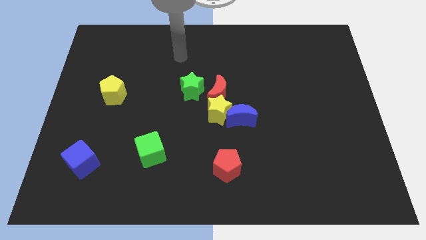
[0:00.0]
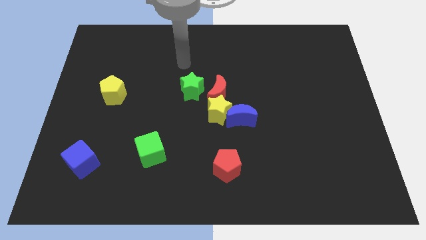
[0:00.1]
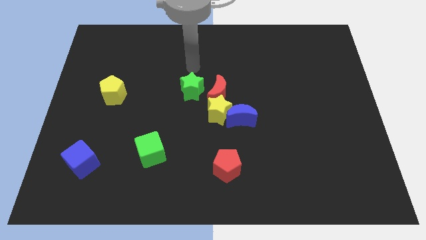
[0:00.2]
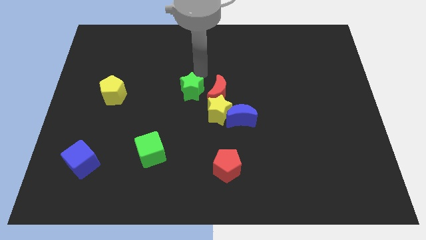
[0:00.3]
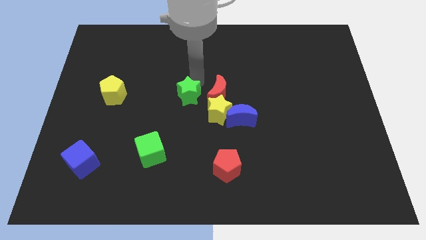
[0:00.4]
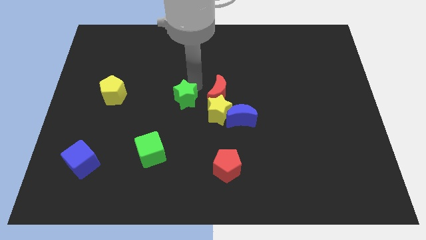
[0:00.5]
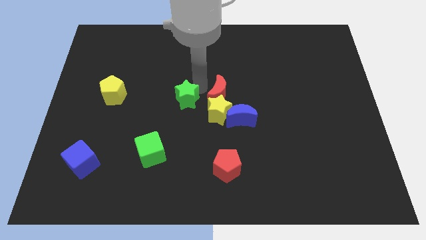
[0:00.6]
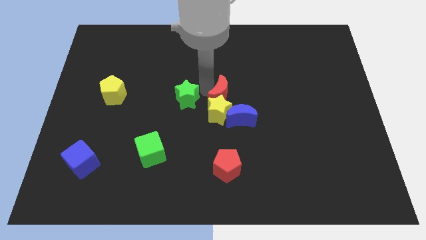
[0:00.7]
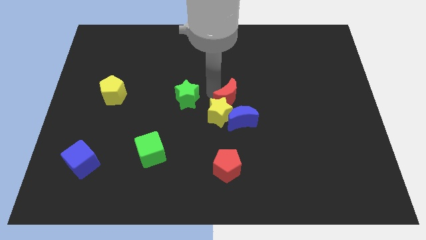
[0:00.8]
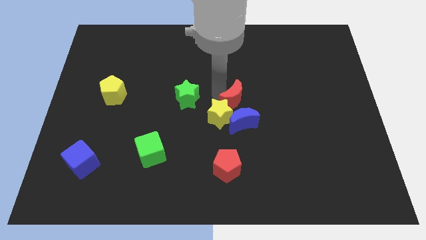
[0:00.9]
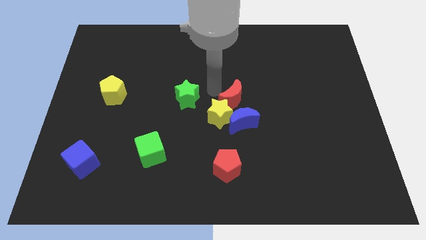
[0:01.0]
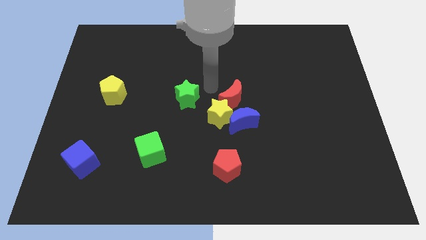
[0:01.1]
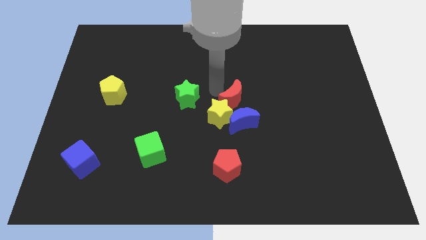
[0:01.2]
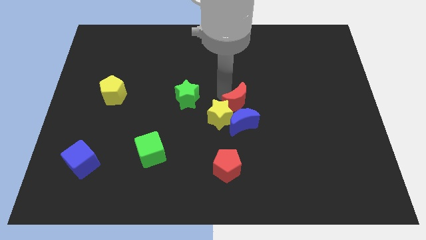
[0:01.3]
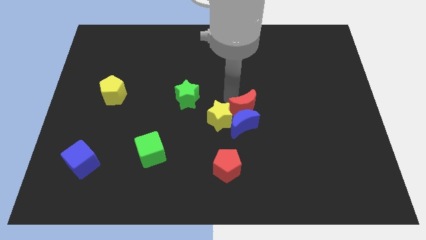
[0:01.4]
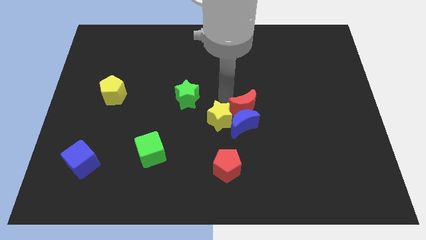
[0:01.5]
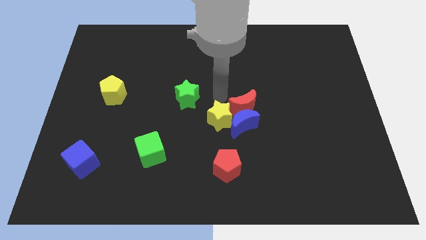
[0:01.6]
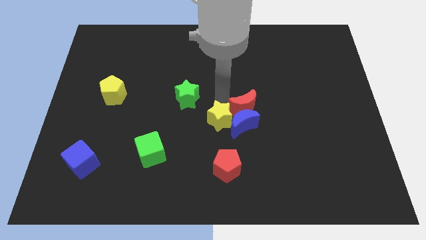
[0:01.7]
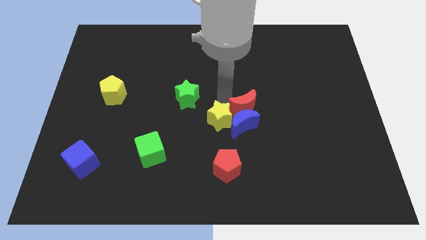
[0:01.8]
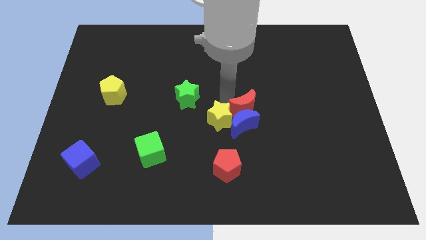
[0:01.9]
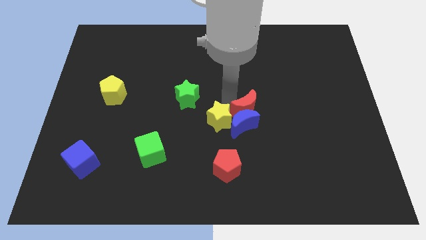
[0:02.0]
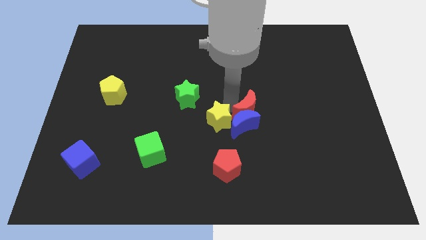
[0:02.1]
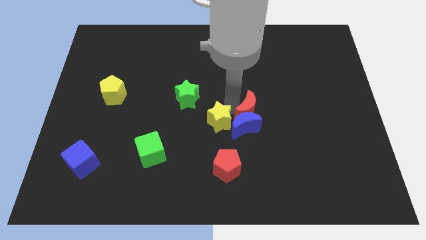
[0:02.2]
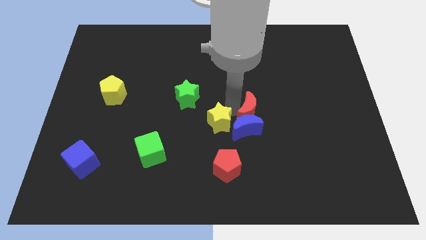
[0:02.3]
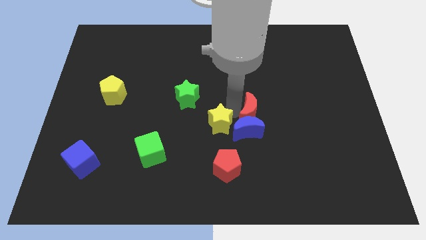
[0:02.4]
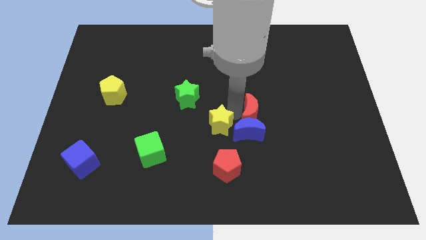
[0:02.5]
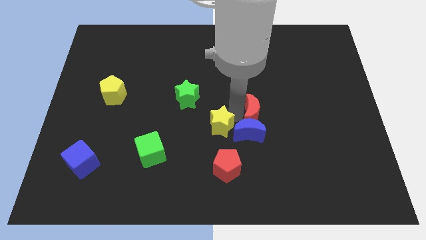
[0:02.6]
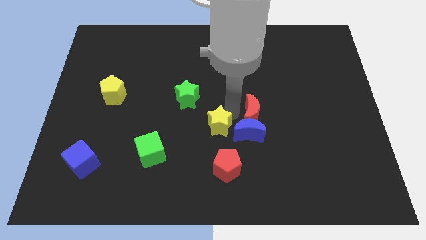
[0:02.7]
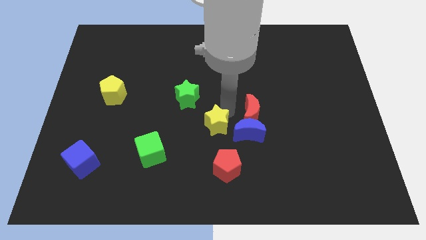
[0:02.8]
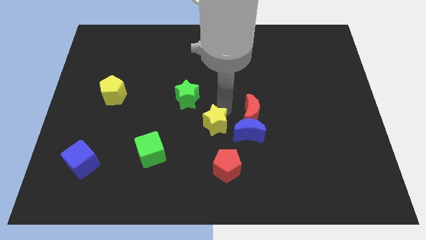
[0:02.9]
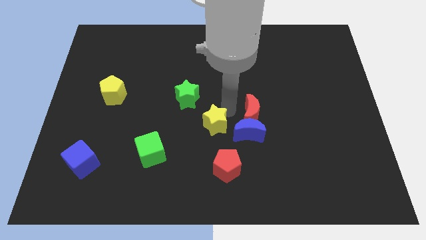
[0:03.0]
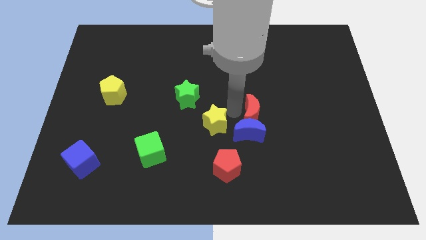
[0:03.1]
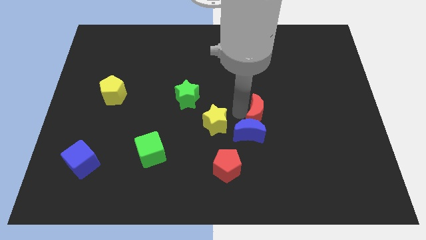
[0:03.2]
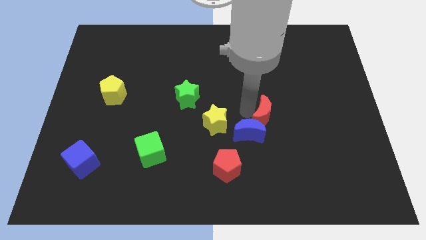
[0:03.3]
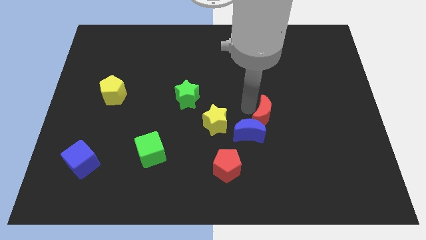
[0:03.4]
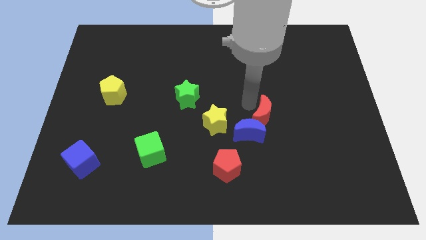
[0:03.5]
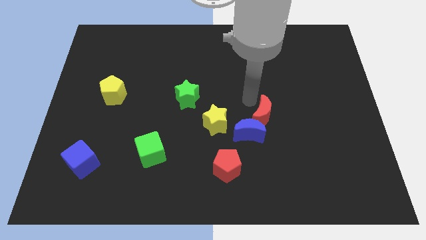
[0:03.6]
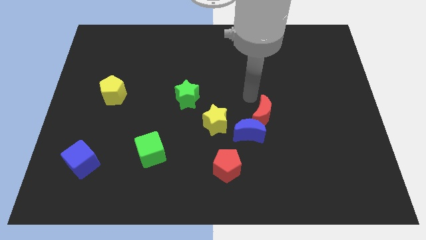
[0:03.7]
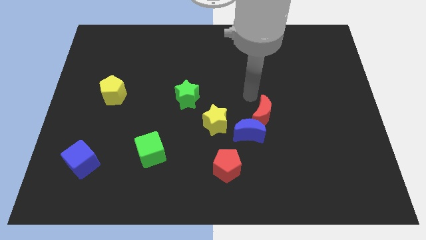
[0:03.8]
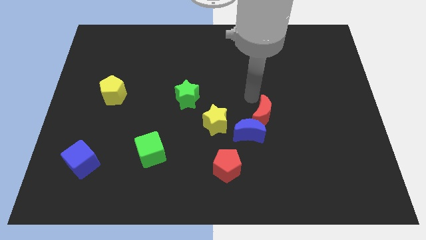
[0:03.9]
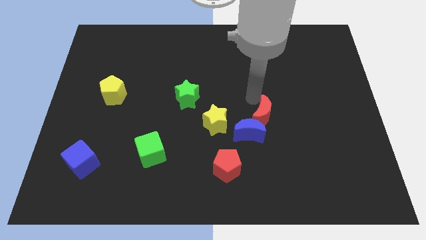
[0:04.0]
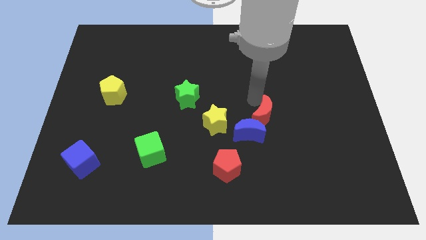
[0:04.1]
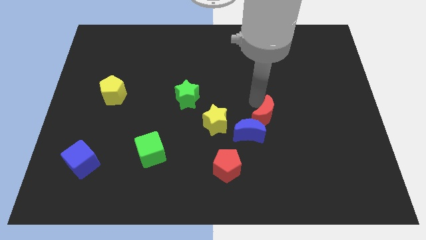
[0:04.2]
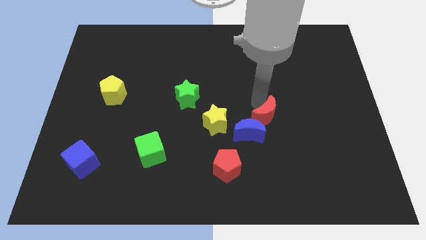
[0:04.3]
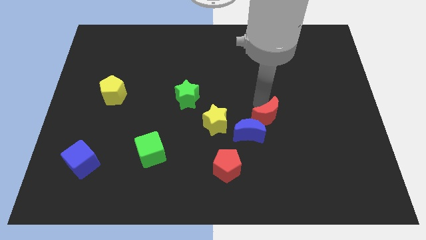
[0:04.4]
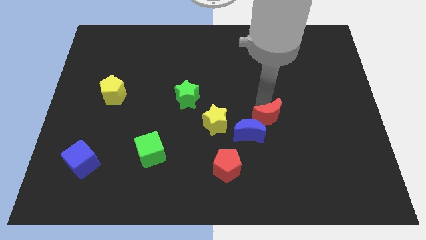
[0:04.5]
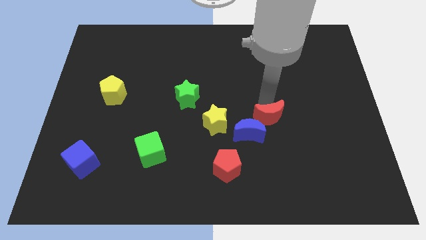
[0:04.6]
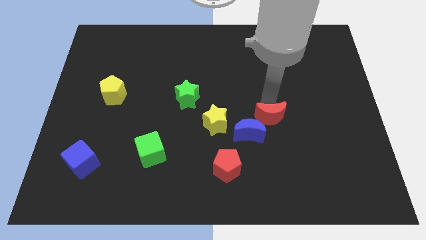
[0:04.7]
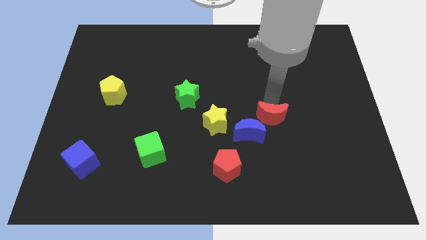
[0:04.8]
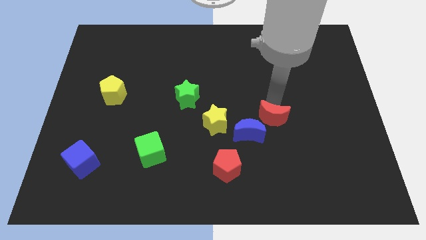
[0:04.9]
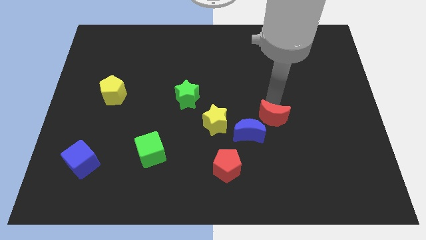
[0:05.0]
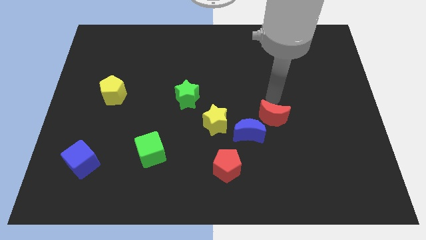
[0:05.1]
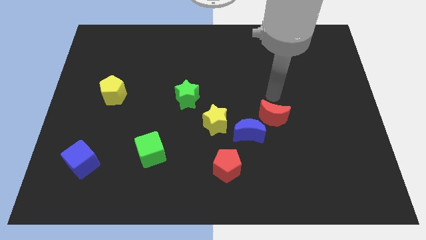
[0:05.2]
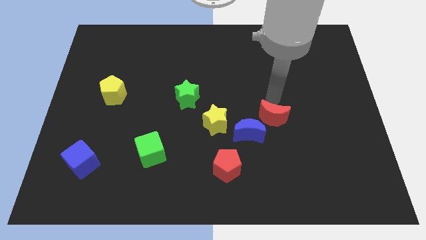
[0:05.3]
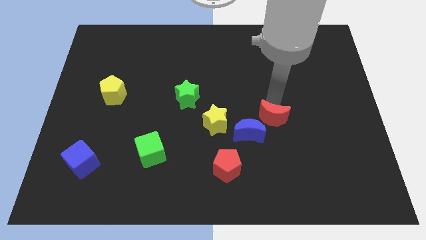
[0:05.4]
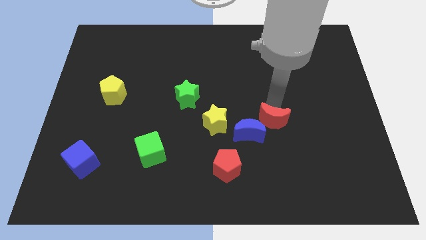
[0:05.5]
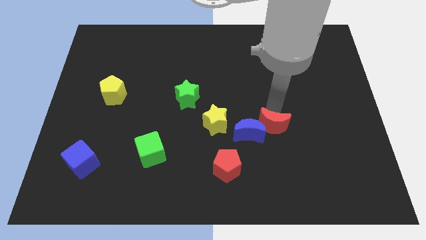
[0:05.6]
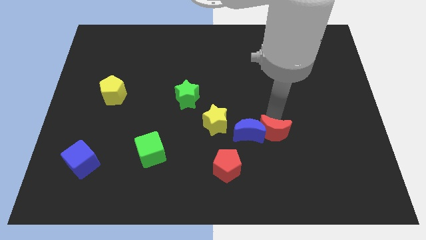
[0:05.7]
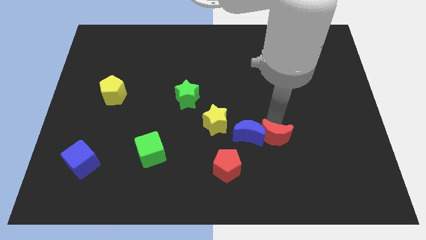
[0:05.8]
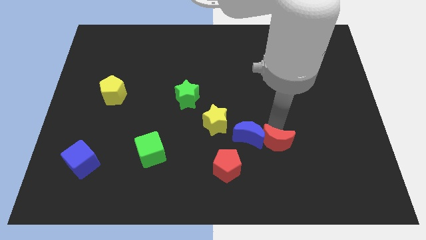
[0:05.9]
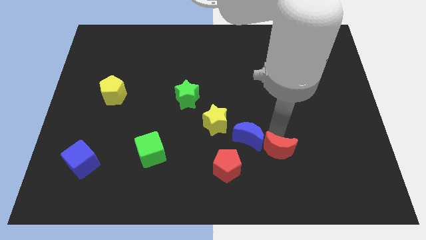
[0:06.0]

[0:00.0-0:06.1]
slide the red moon to the right of the red pentagon
